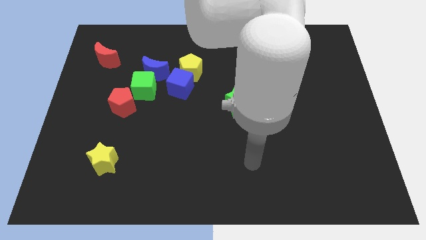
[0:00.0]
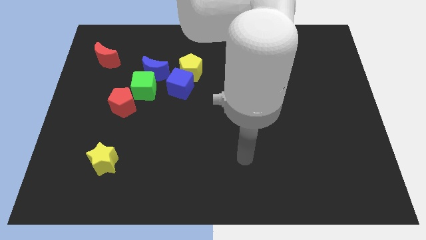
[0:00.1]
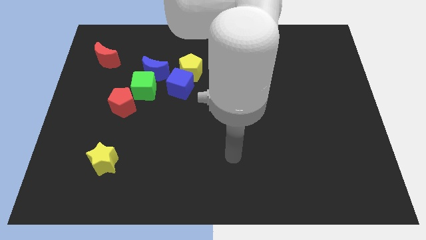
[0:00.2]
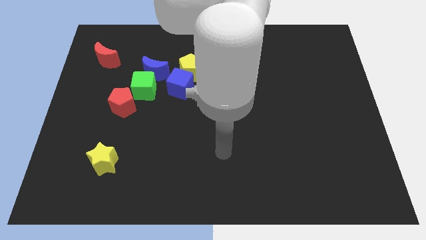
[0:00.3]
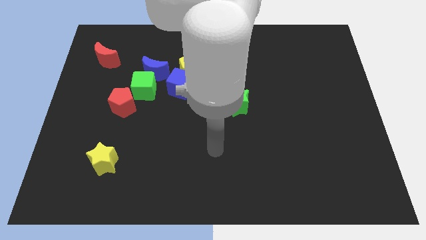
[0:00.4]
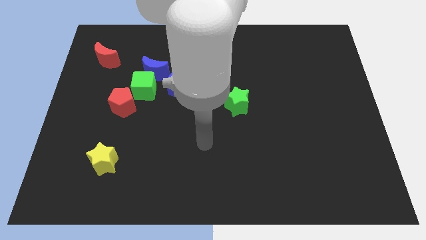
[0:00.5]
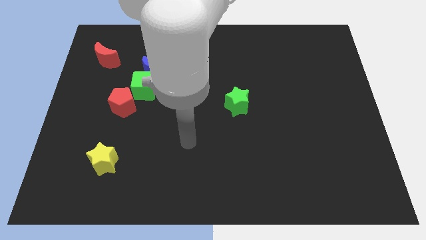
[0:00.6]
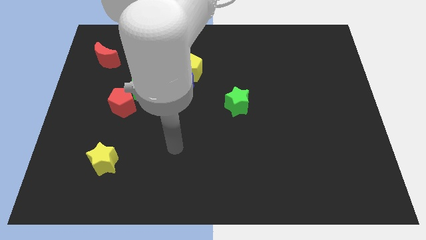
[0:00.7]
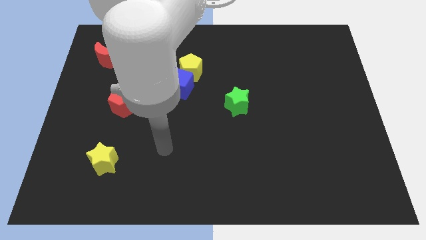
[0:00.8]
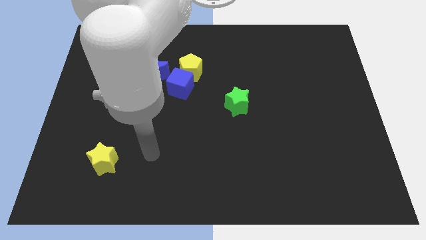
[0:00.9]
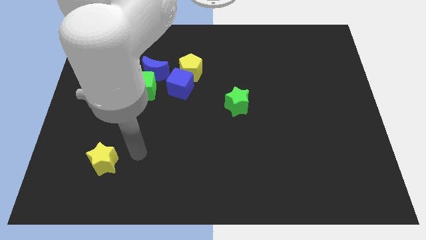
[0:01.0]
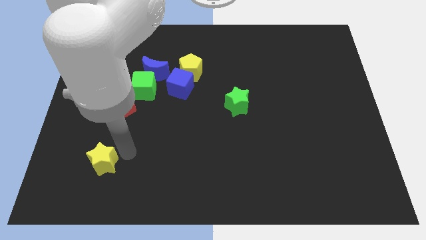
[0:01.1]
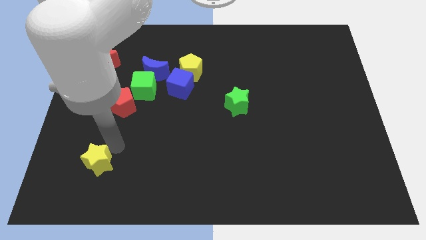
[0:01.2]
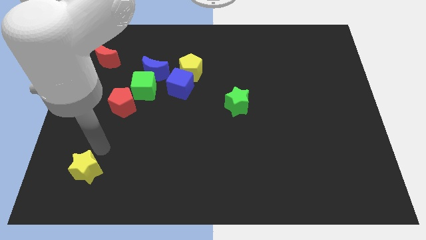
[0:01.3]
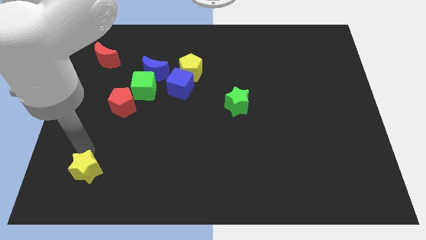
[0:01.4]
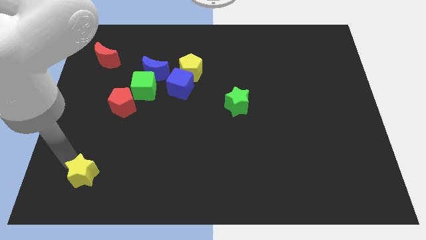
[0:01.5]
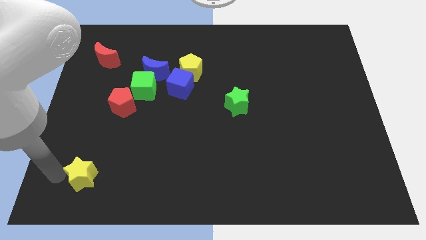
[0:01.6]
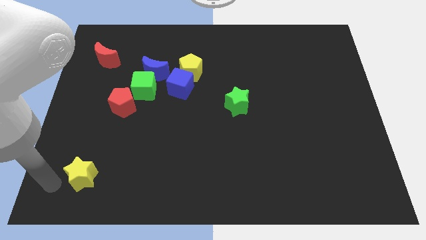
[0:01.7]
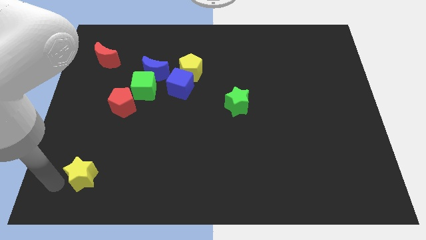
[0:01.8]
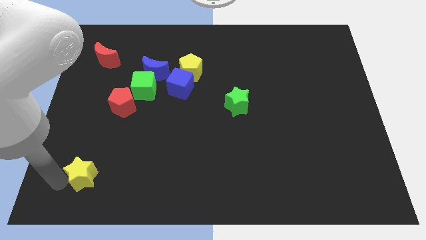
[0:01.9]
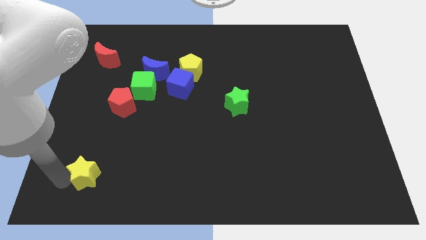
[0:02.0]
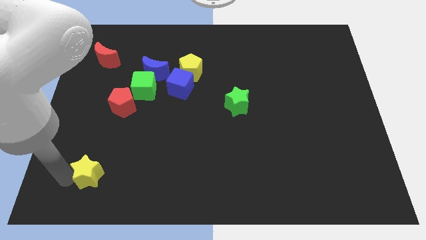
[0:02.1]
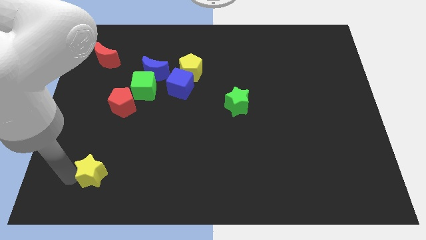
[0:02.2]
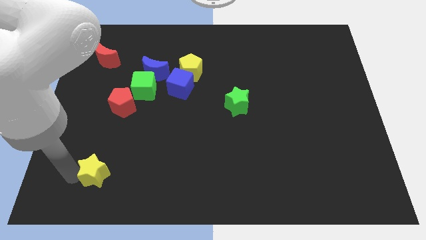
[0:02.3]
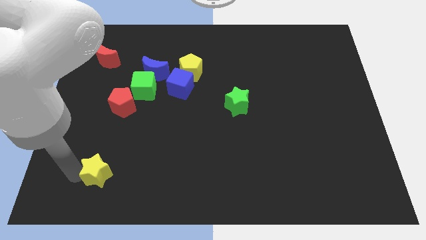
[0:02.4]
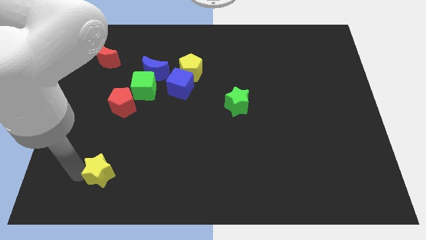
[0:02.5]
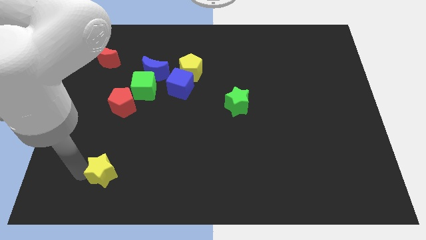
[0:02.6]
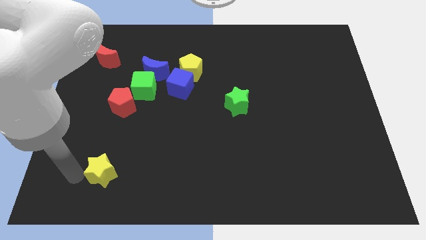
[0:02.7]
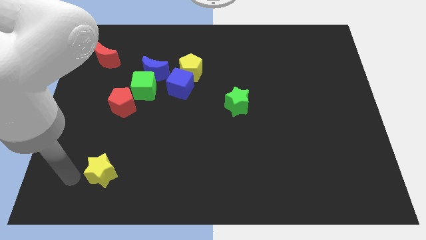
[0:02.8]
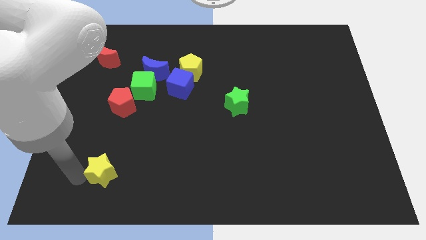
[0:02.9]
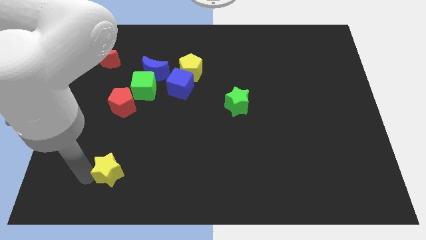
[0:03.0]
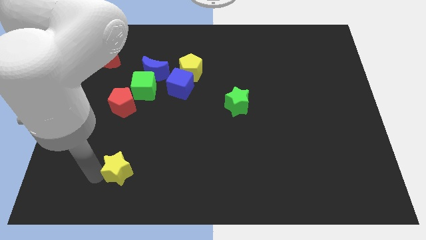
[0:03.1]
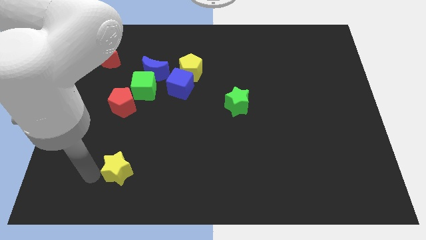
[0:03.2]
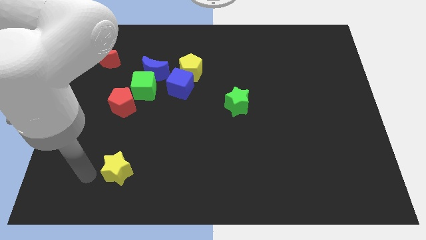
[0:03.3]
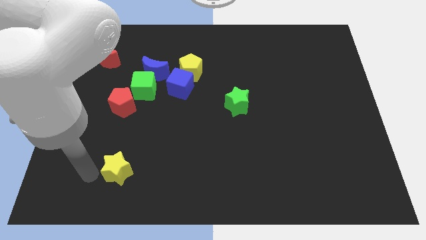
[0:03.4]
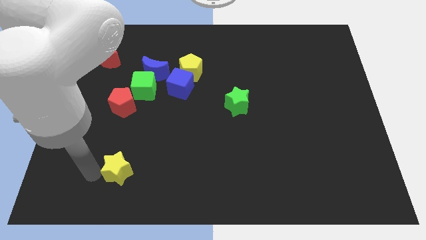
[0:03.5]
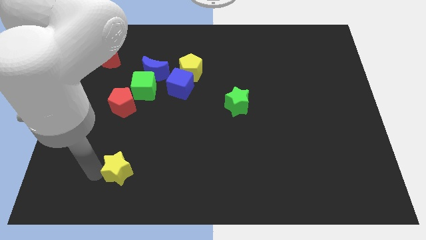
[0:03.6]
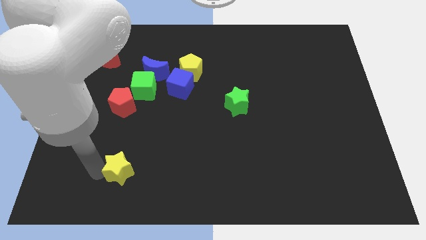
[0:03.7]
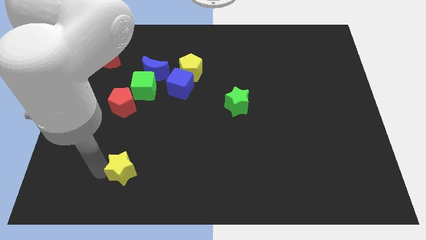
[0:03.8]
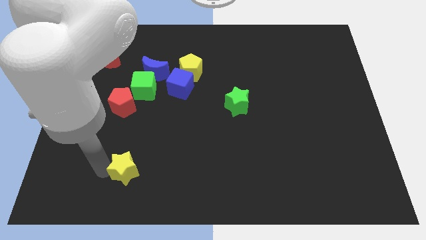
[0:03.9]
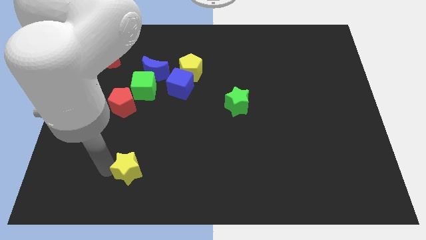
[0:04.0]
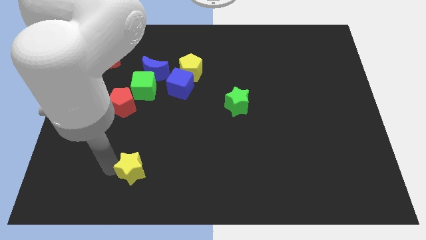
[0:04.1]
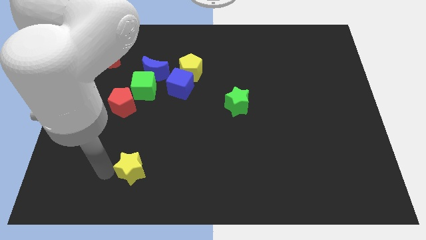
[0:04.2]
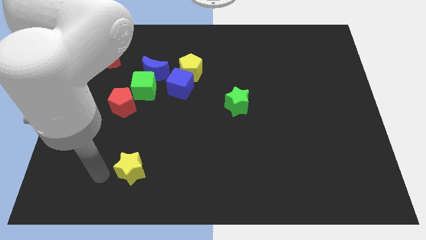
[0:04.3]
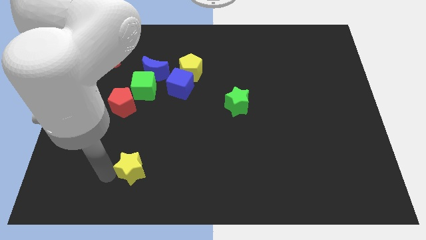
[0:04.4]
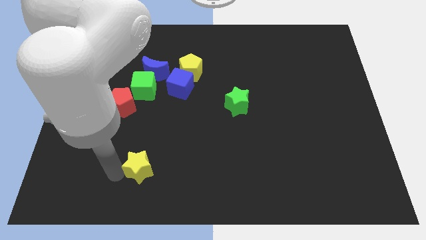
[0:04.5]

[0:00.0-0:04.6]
push the yellow star right a little

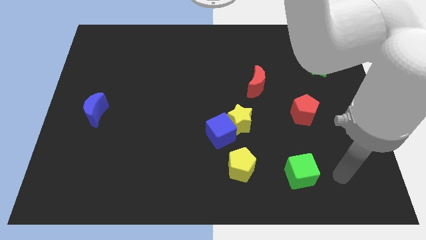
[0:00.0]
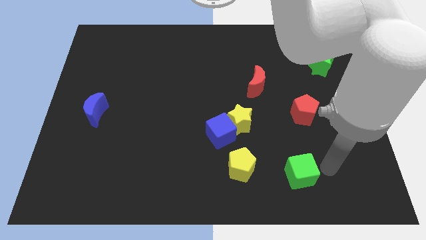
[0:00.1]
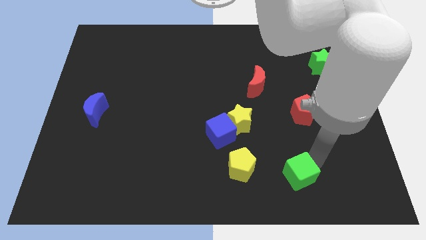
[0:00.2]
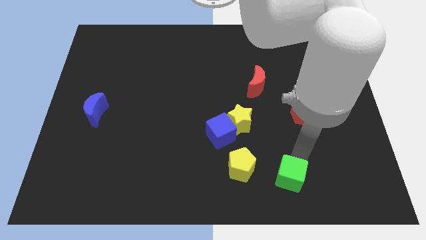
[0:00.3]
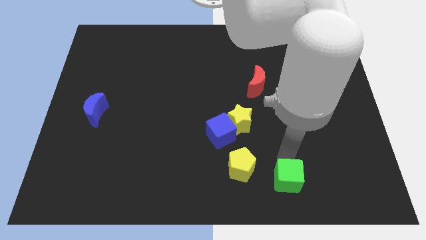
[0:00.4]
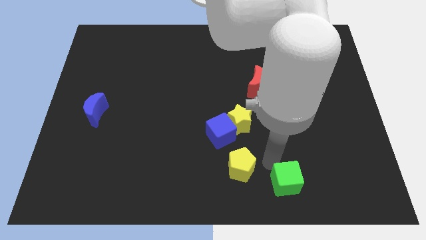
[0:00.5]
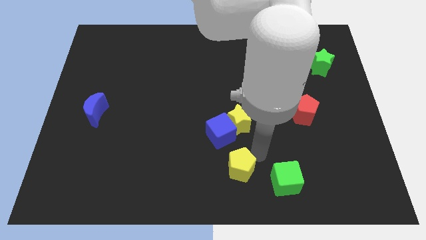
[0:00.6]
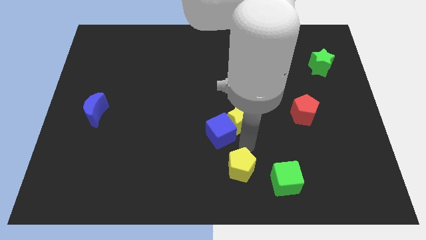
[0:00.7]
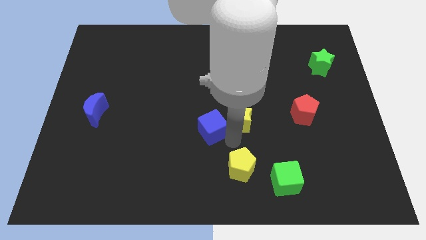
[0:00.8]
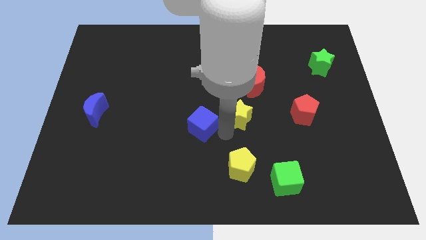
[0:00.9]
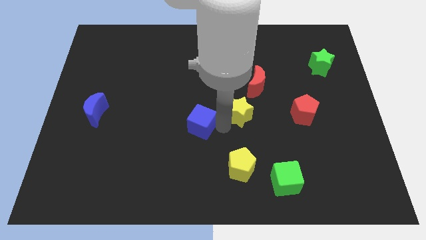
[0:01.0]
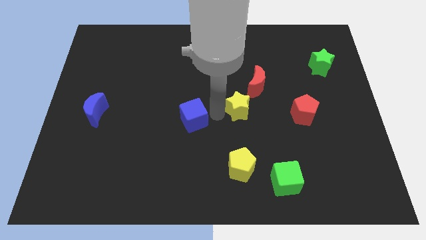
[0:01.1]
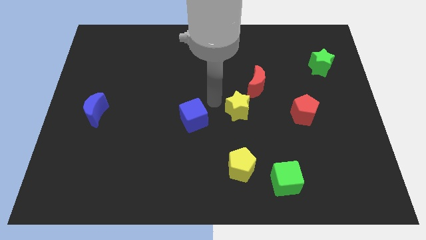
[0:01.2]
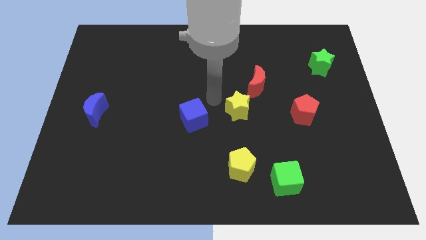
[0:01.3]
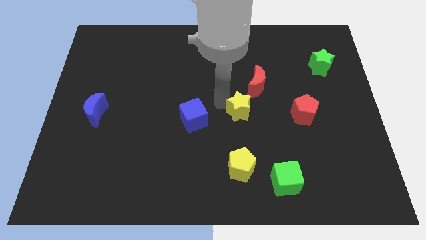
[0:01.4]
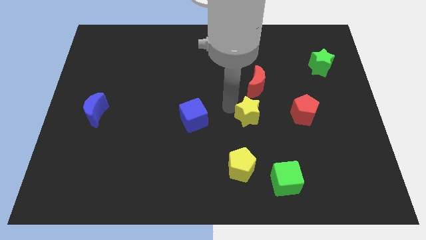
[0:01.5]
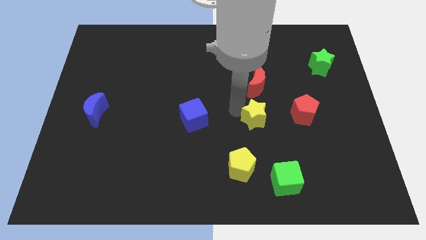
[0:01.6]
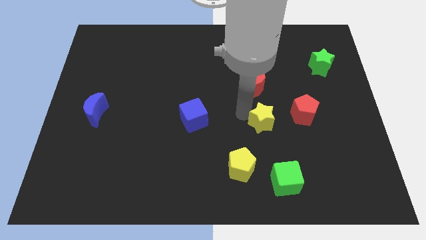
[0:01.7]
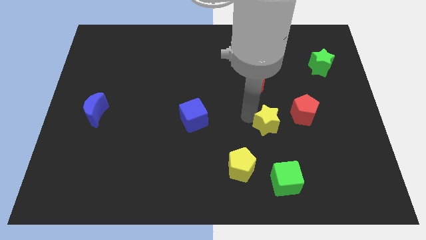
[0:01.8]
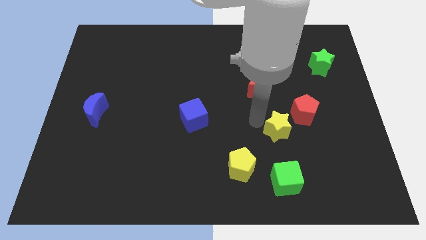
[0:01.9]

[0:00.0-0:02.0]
slightly move the yellow star right

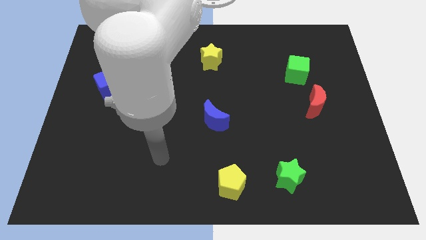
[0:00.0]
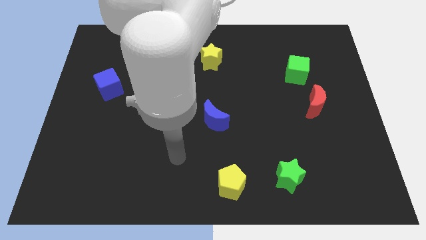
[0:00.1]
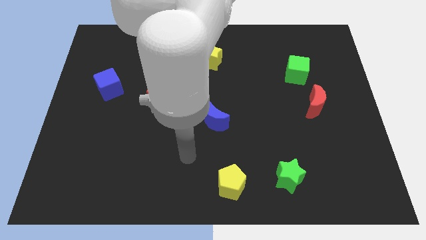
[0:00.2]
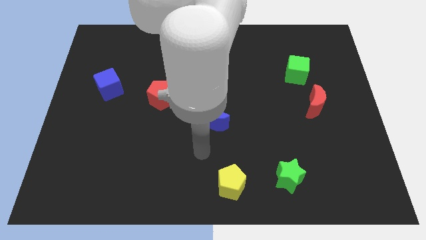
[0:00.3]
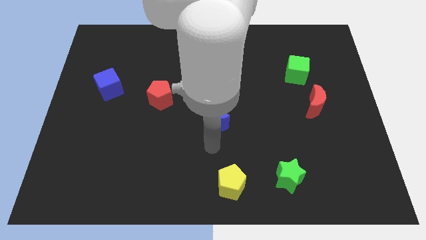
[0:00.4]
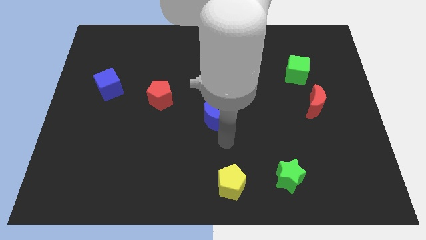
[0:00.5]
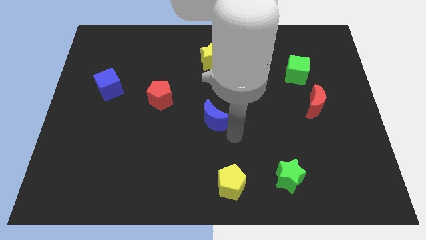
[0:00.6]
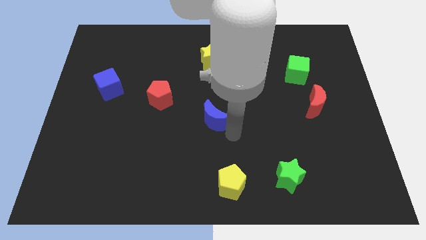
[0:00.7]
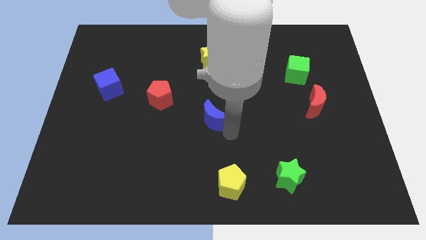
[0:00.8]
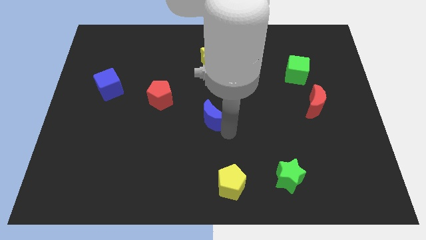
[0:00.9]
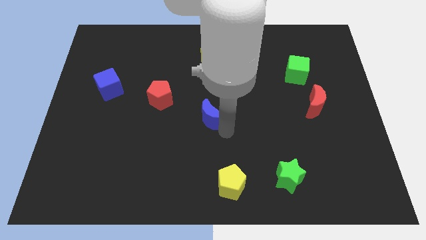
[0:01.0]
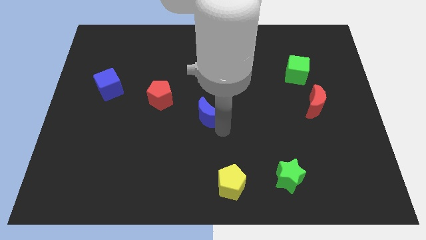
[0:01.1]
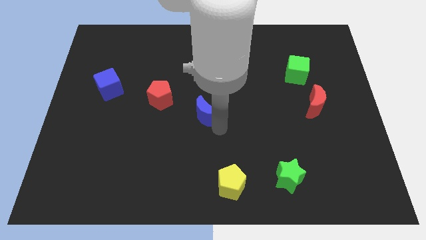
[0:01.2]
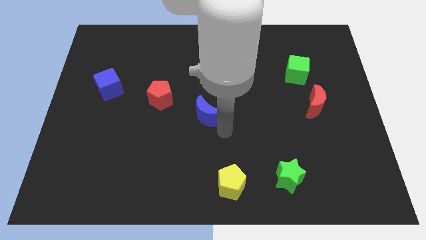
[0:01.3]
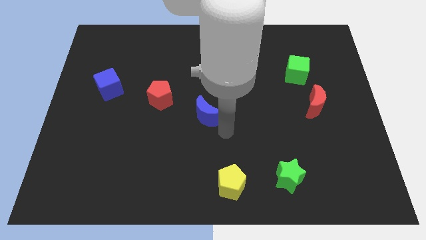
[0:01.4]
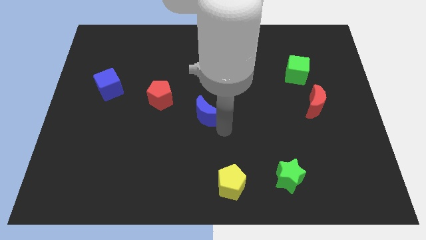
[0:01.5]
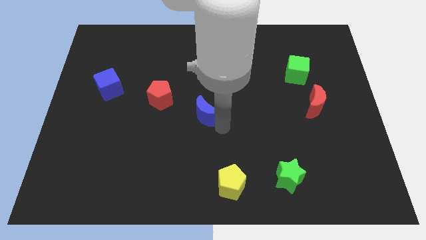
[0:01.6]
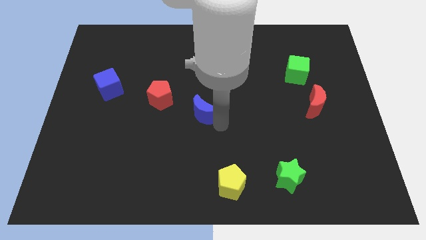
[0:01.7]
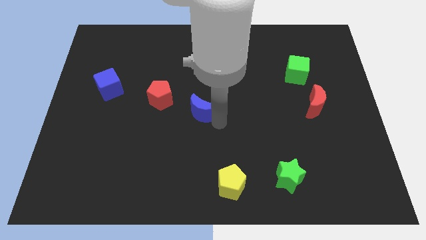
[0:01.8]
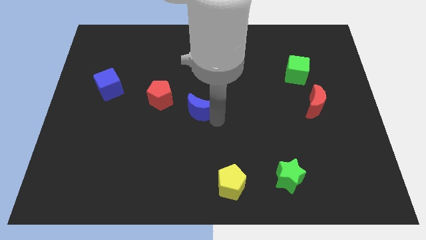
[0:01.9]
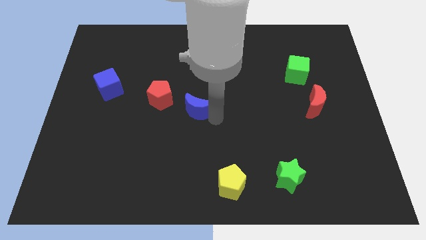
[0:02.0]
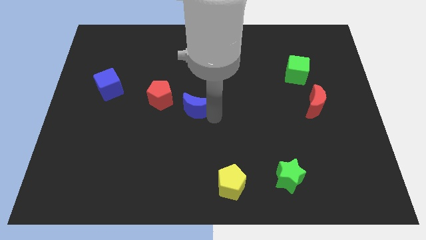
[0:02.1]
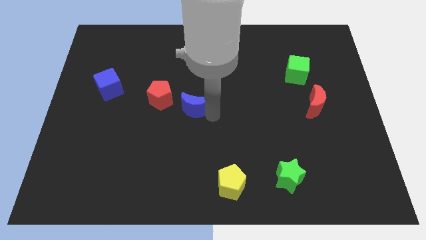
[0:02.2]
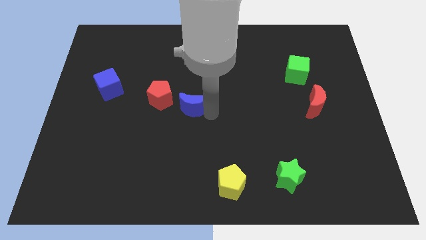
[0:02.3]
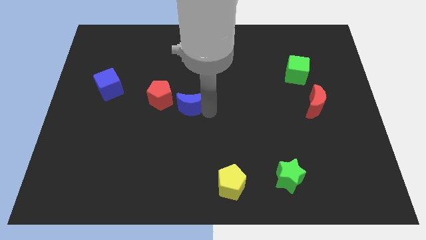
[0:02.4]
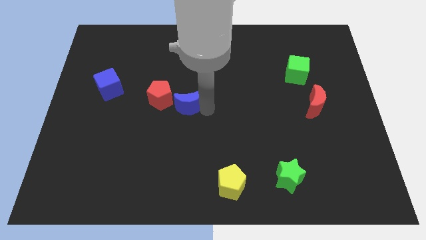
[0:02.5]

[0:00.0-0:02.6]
push the blue moon a little up and to the left diagonally
